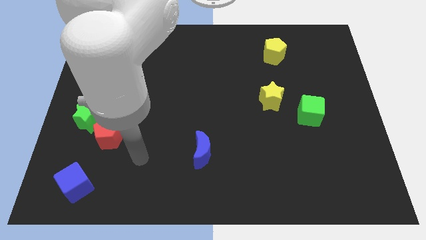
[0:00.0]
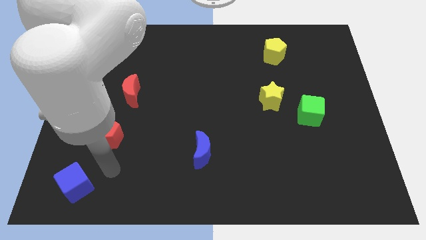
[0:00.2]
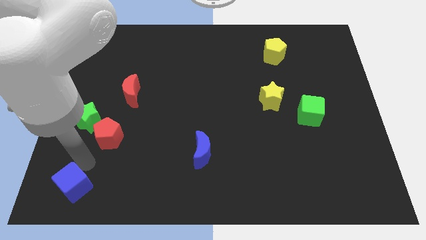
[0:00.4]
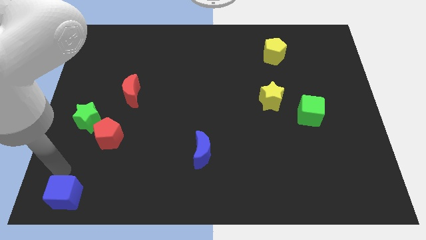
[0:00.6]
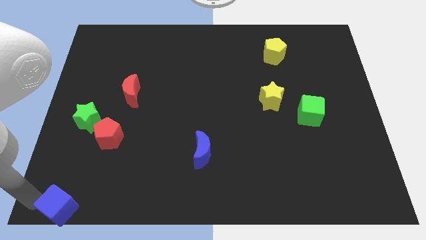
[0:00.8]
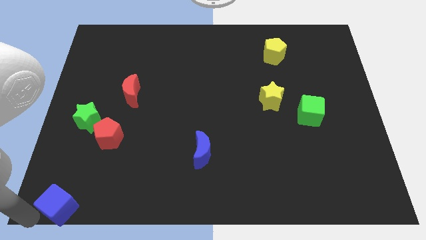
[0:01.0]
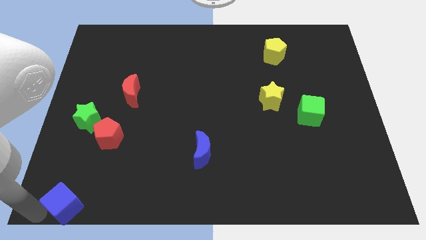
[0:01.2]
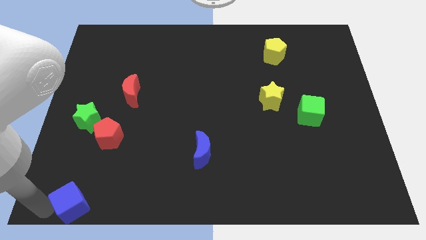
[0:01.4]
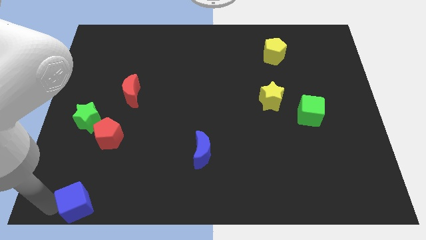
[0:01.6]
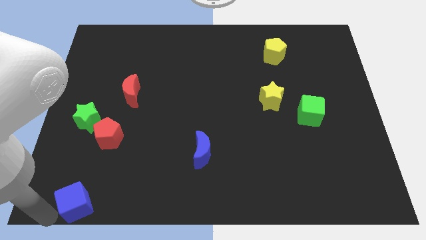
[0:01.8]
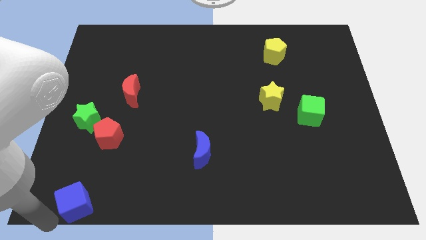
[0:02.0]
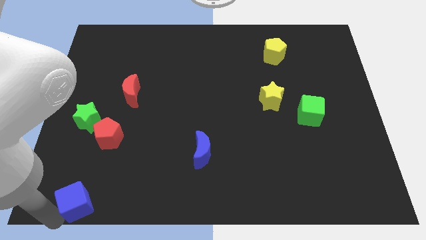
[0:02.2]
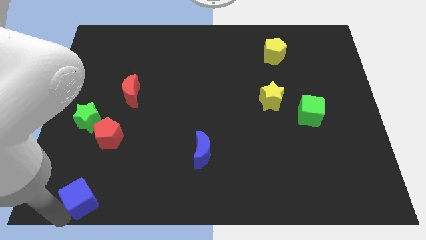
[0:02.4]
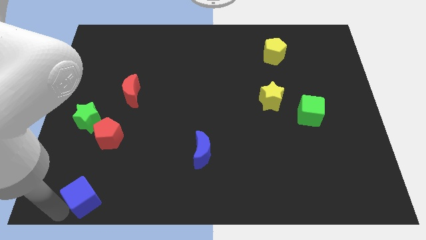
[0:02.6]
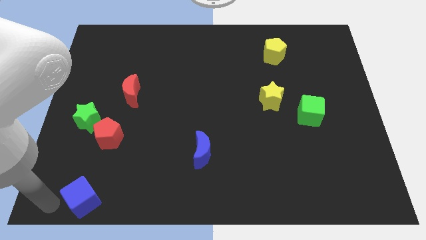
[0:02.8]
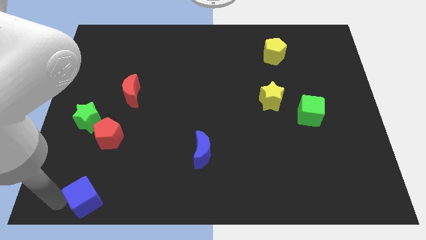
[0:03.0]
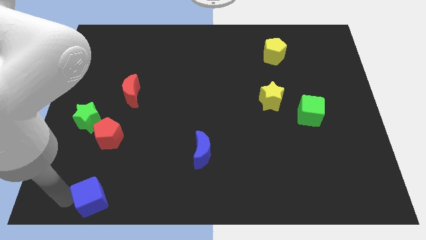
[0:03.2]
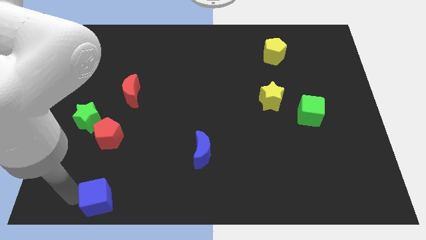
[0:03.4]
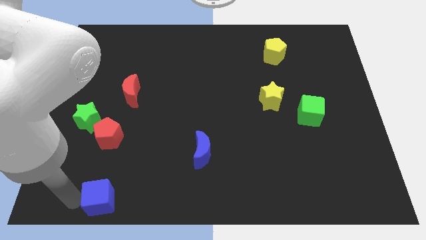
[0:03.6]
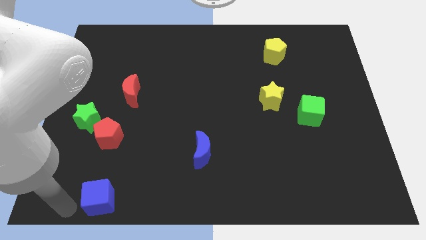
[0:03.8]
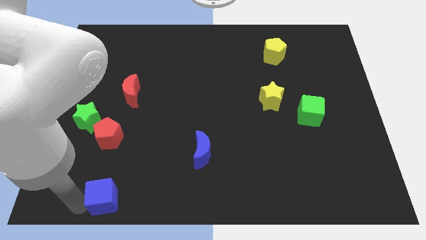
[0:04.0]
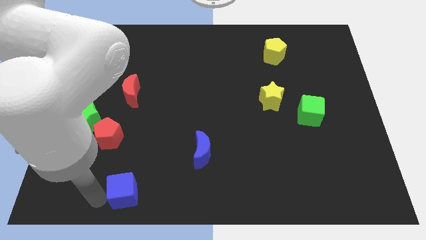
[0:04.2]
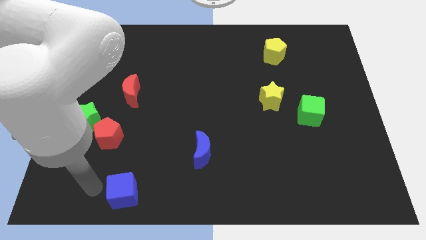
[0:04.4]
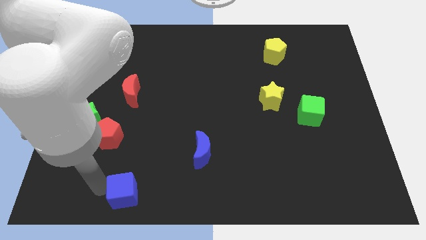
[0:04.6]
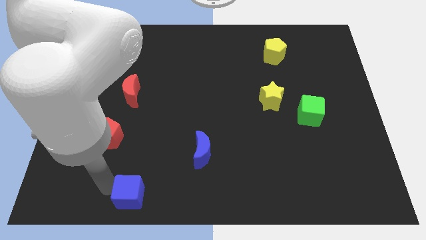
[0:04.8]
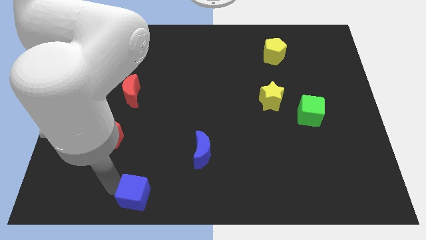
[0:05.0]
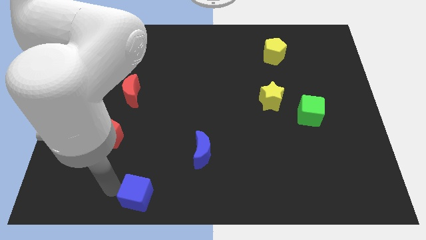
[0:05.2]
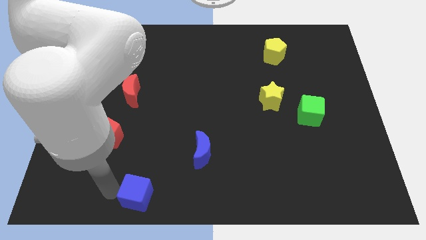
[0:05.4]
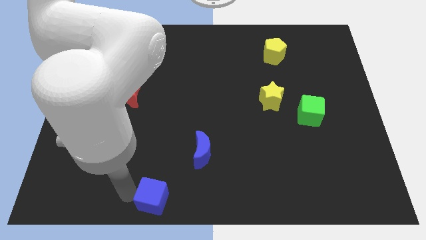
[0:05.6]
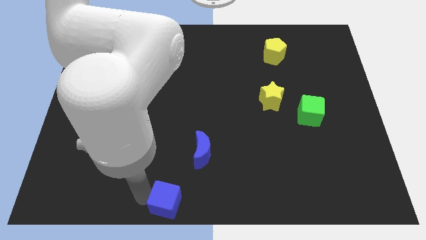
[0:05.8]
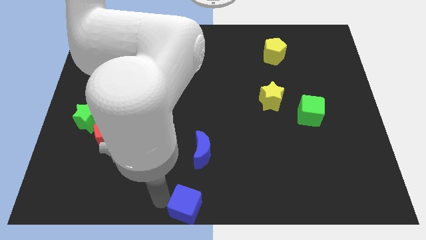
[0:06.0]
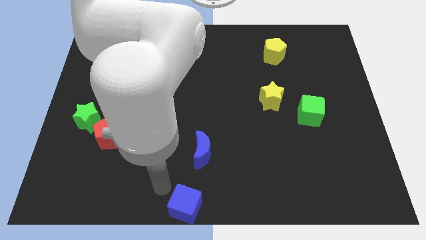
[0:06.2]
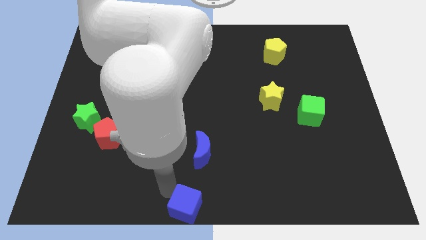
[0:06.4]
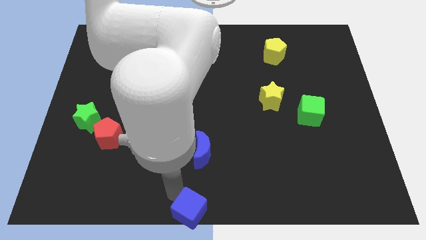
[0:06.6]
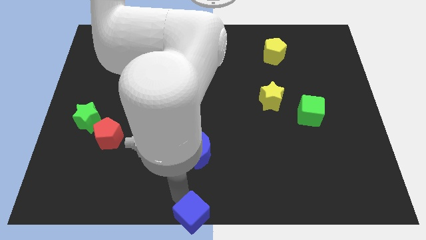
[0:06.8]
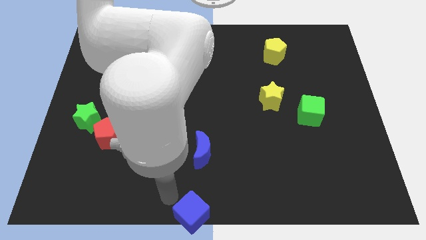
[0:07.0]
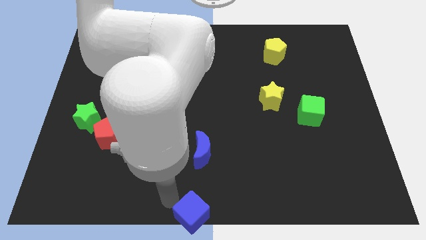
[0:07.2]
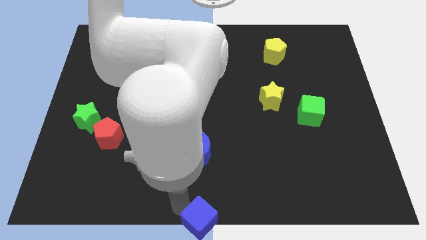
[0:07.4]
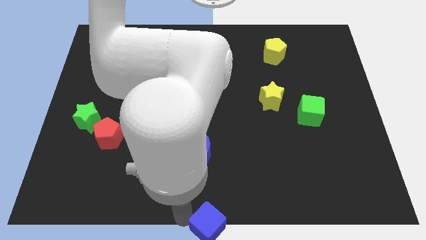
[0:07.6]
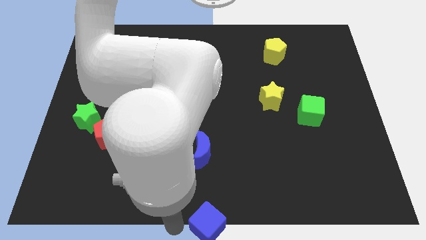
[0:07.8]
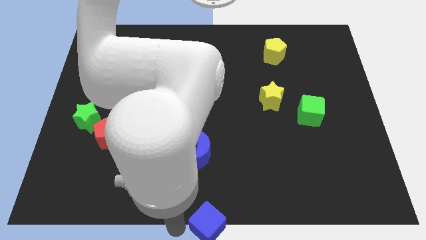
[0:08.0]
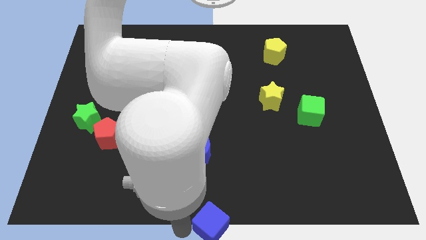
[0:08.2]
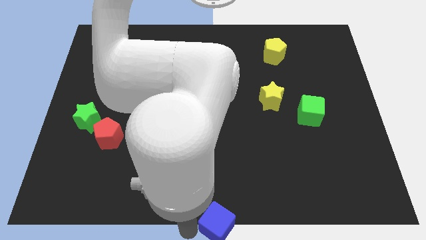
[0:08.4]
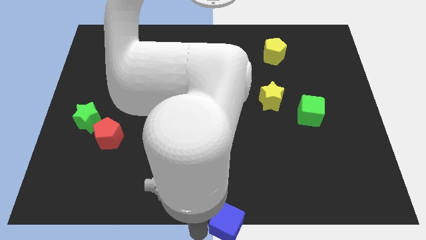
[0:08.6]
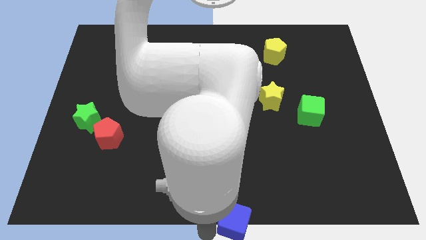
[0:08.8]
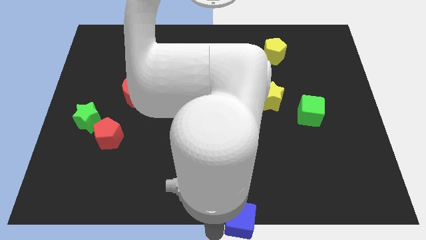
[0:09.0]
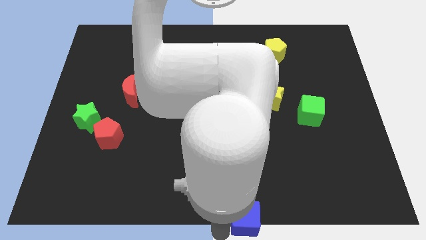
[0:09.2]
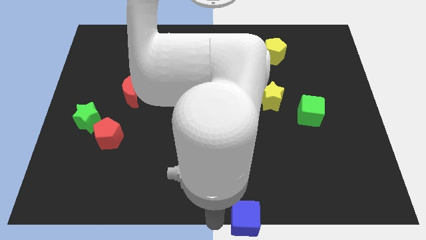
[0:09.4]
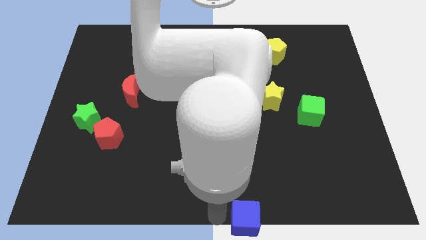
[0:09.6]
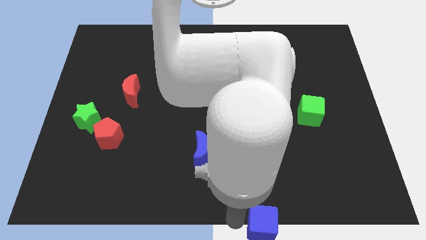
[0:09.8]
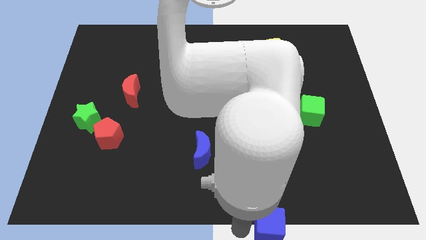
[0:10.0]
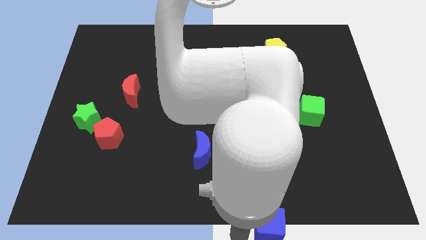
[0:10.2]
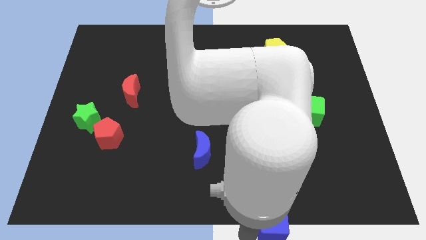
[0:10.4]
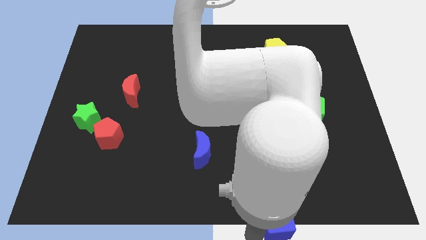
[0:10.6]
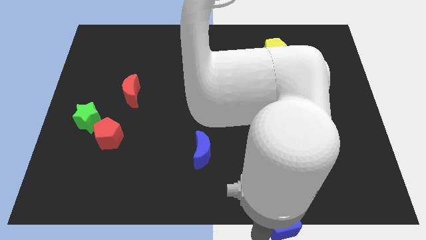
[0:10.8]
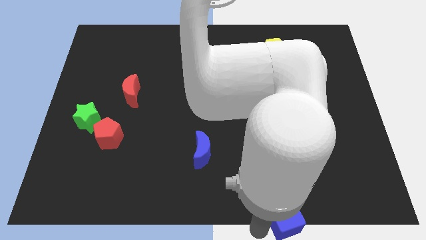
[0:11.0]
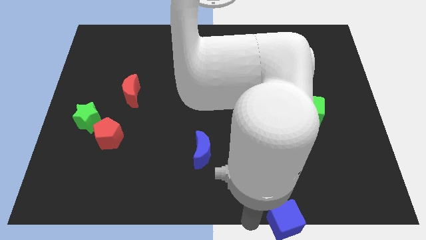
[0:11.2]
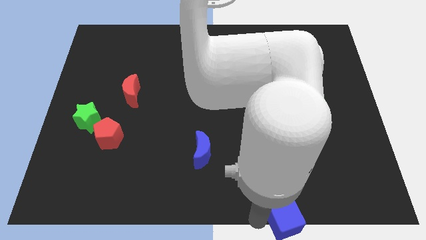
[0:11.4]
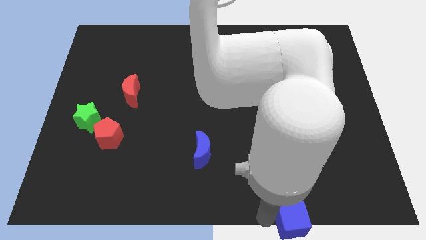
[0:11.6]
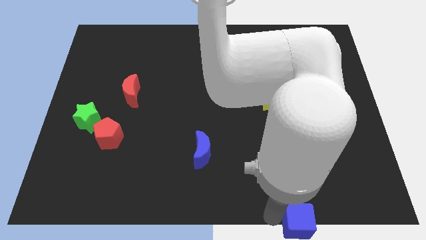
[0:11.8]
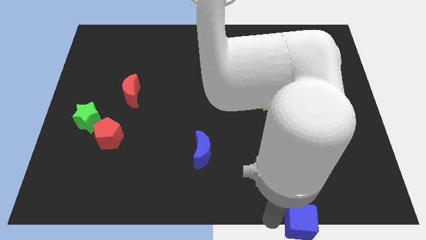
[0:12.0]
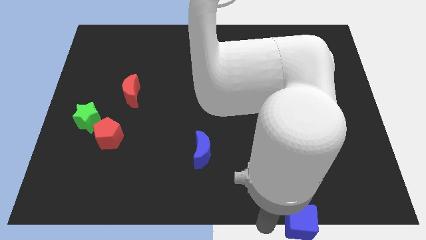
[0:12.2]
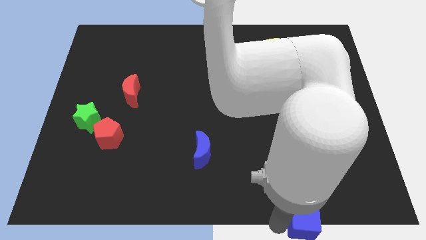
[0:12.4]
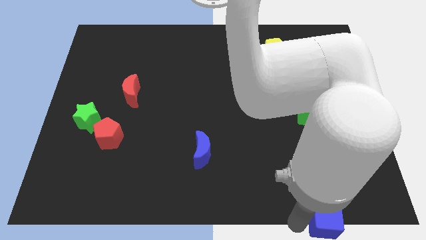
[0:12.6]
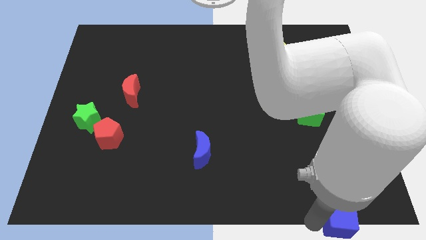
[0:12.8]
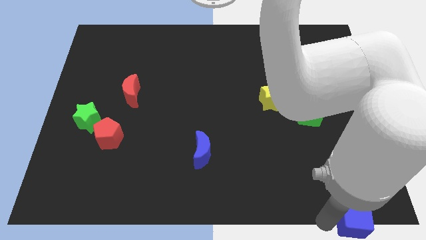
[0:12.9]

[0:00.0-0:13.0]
slide the blue cube to the bottom right of the board
